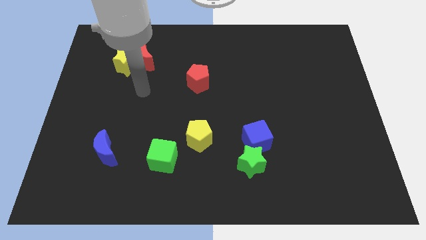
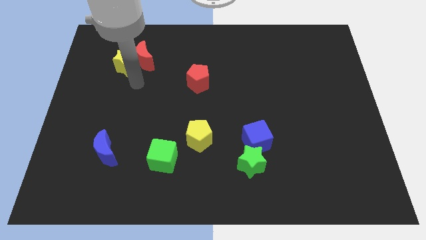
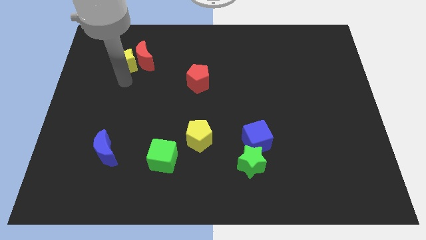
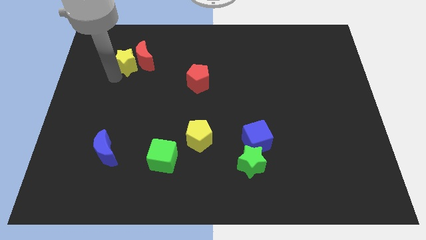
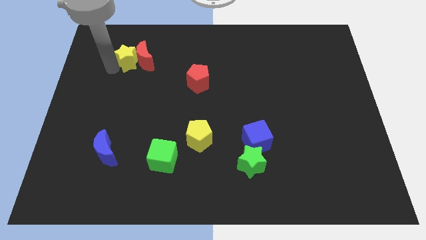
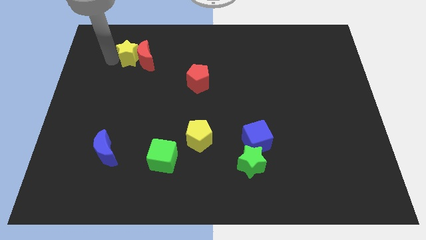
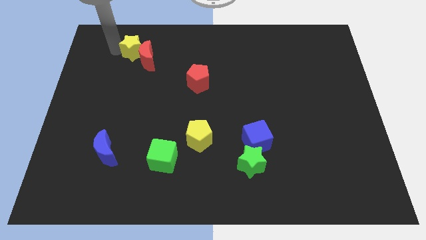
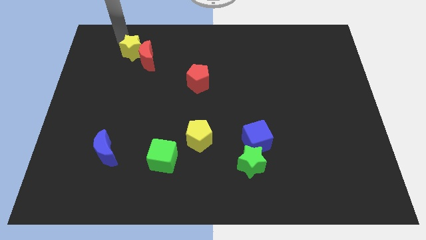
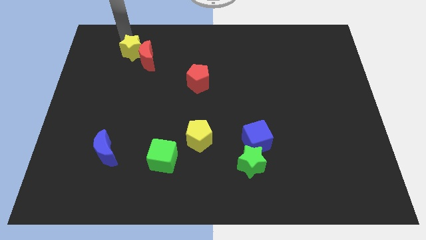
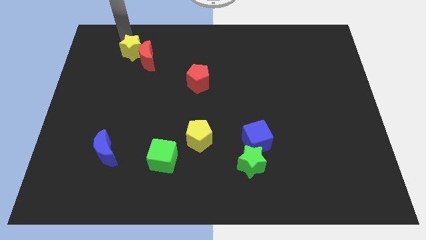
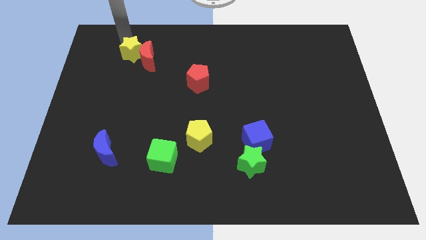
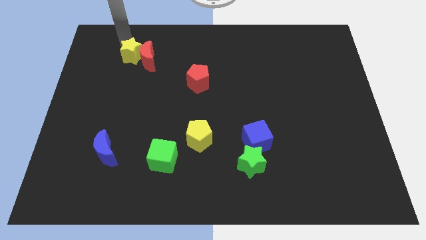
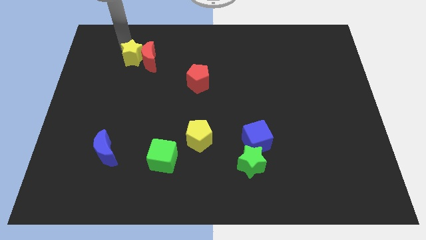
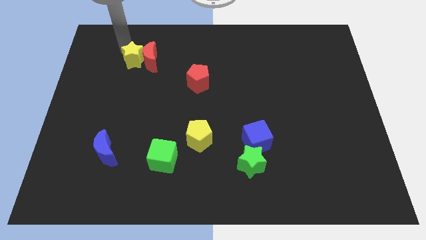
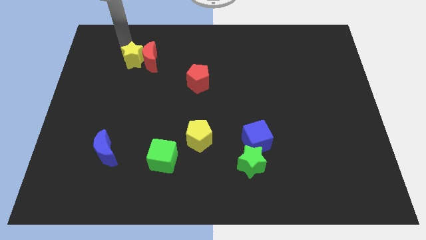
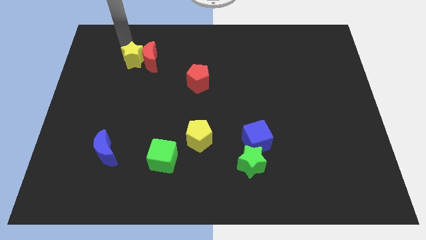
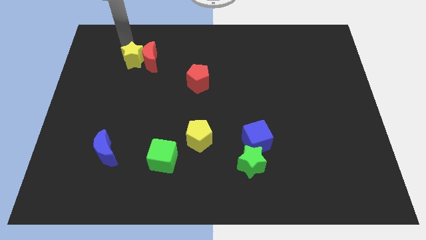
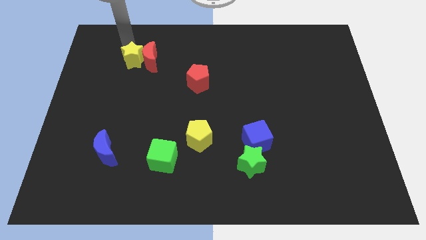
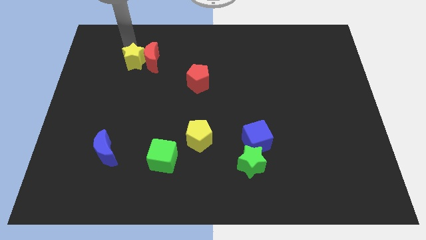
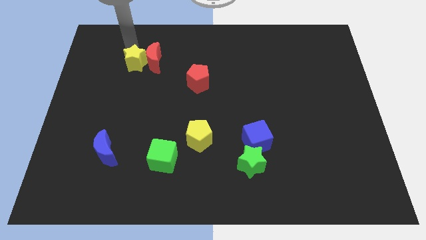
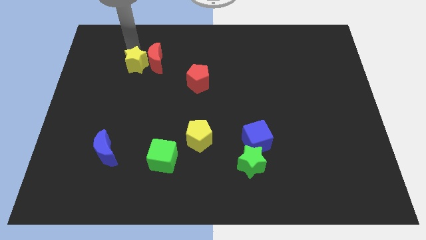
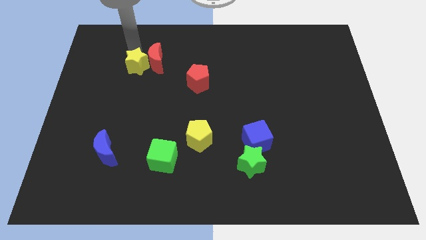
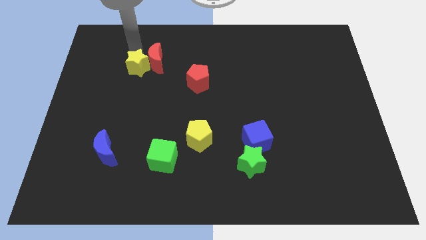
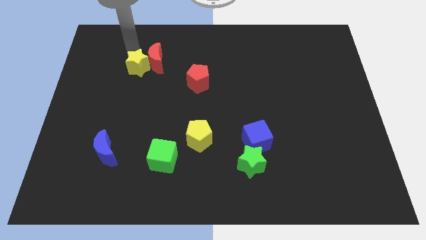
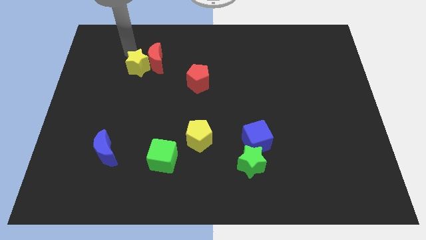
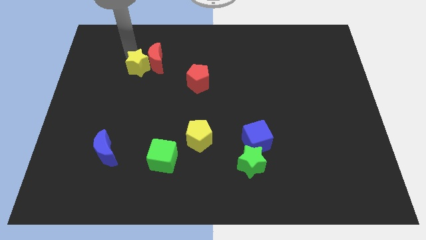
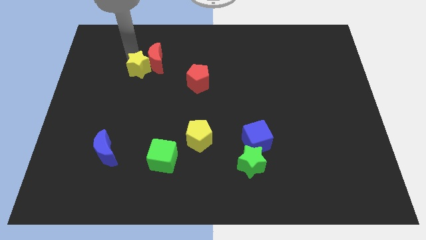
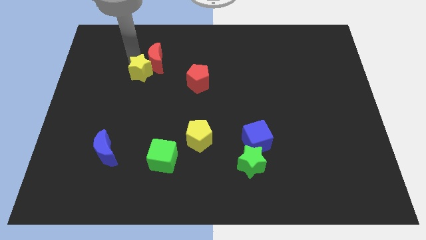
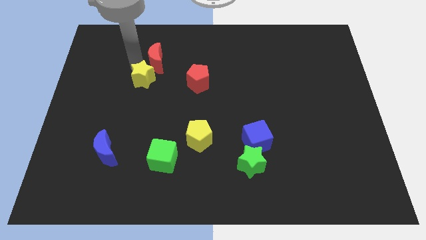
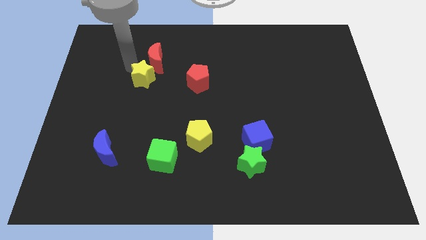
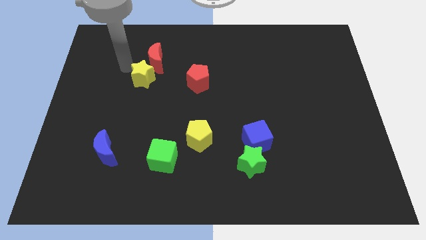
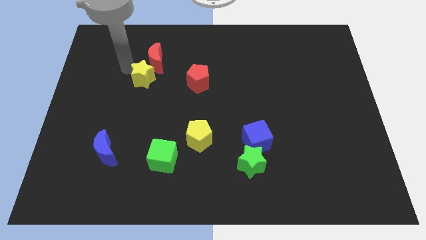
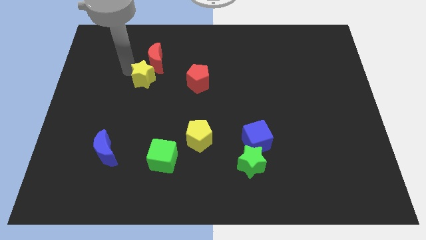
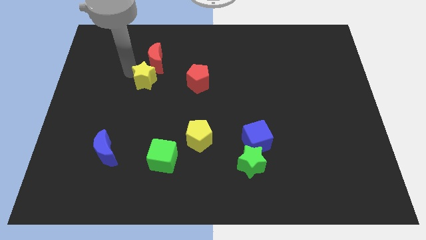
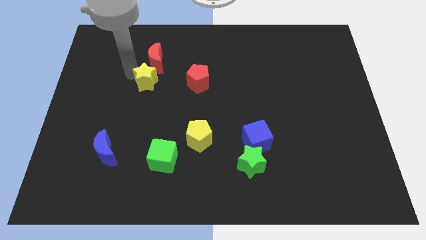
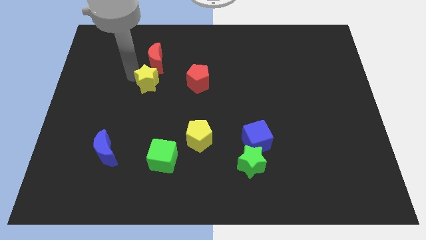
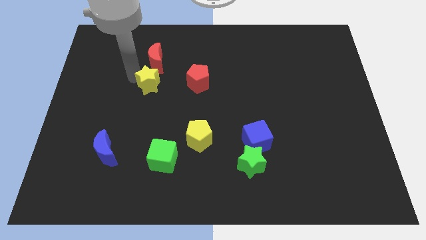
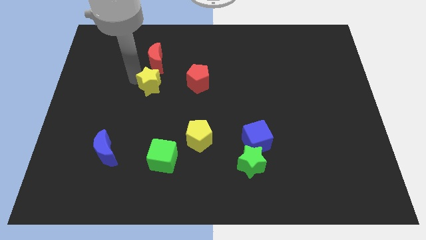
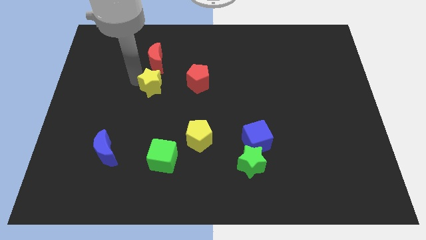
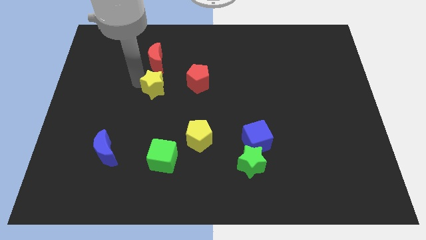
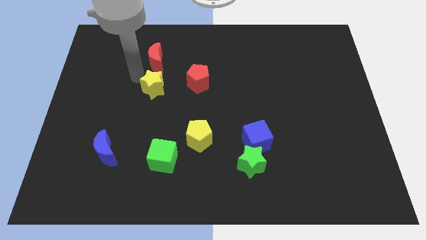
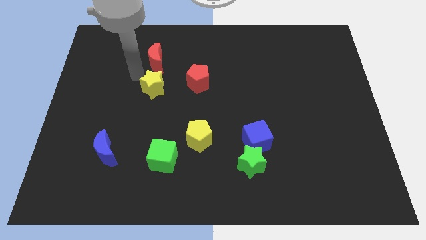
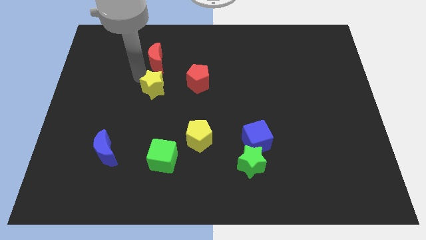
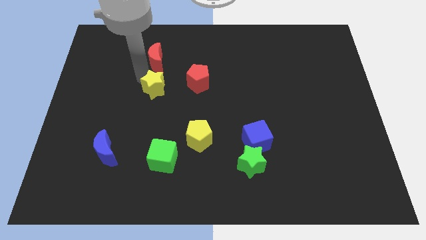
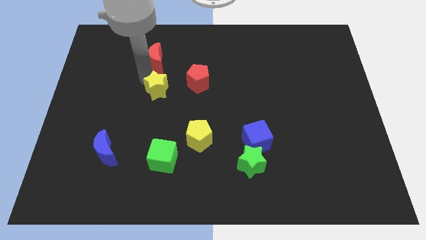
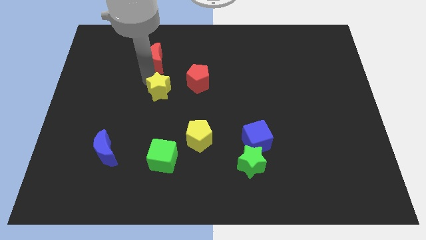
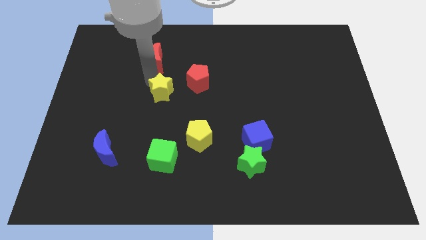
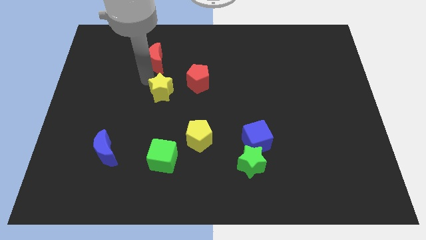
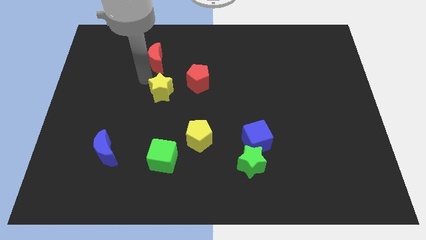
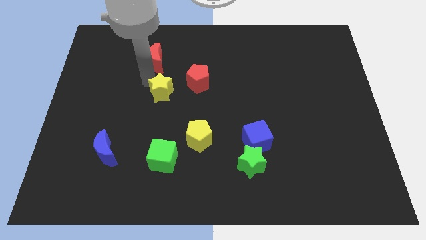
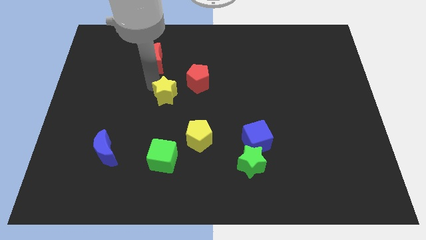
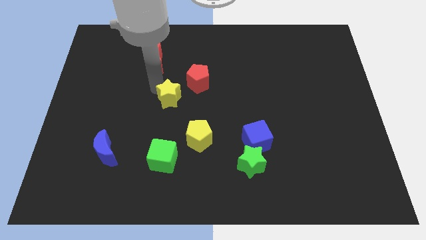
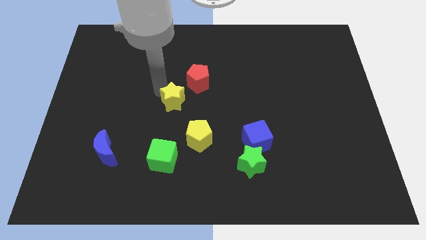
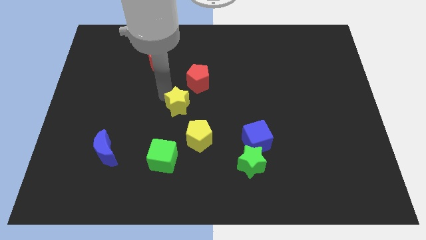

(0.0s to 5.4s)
move the yellow star to the bottom side of the red pentagon

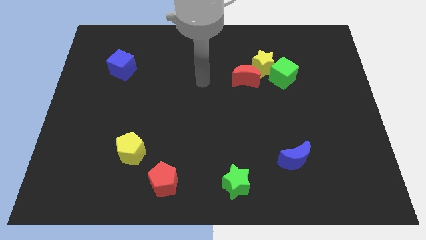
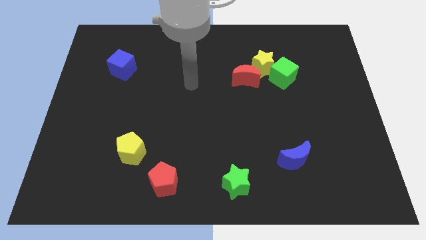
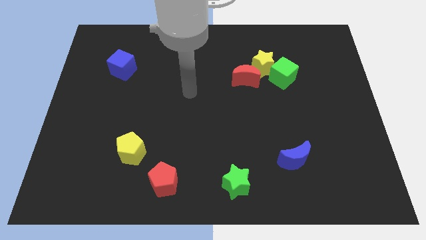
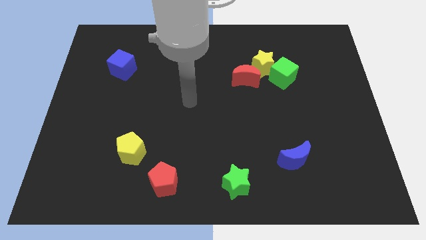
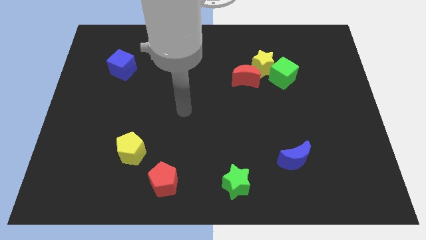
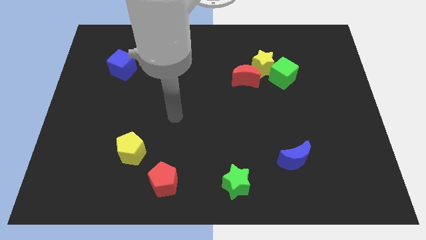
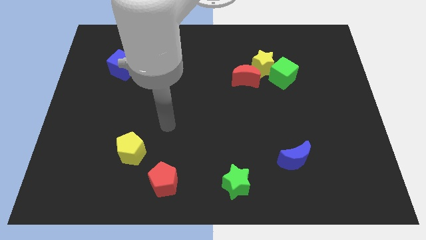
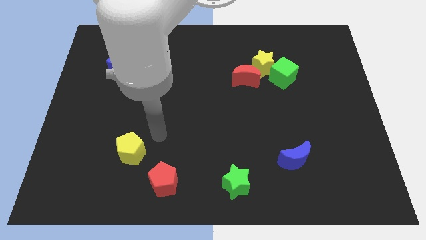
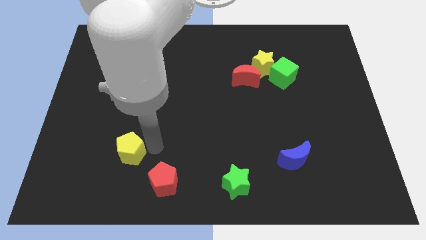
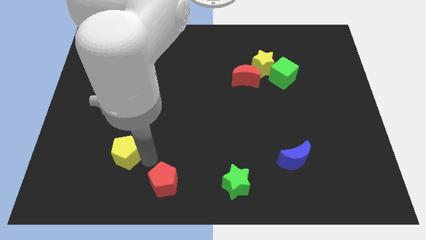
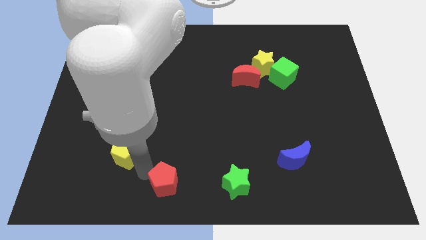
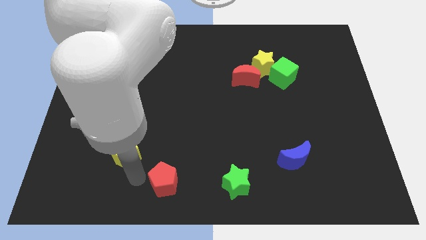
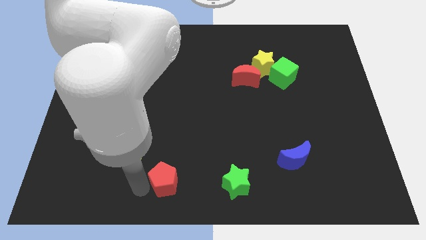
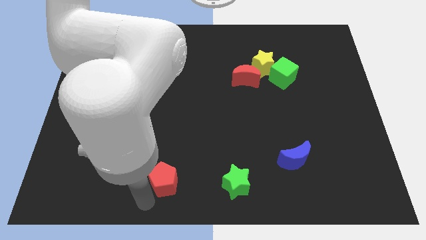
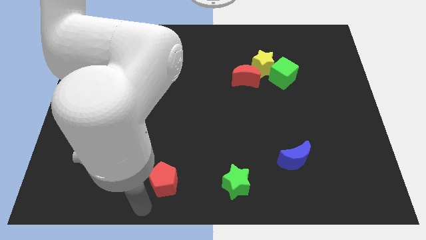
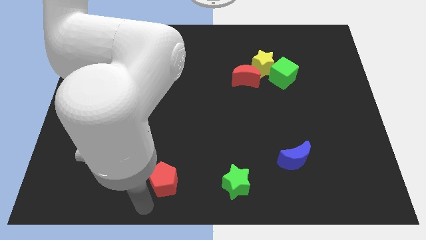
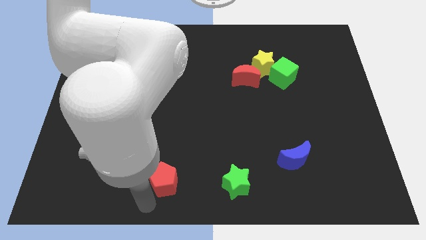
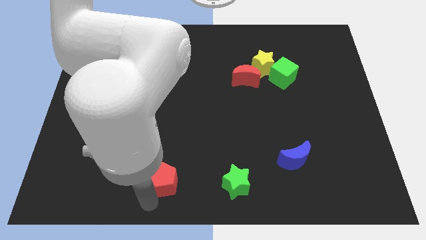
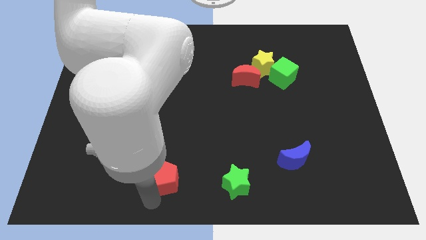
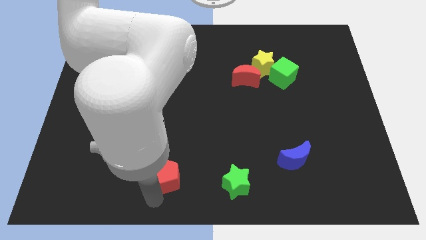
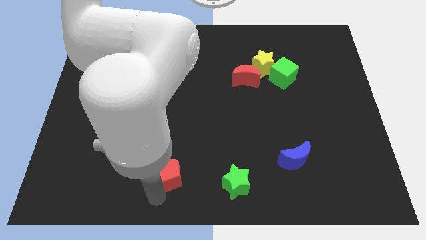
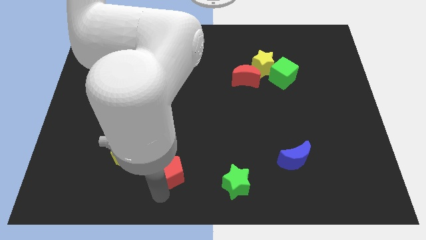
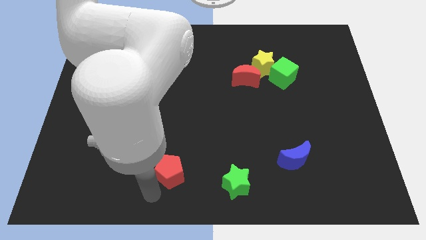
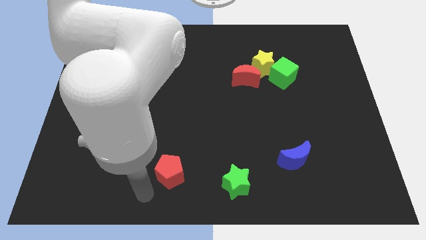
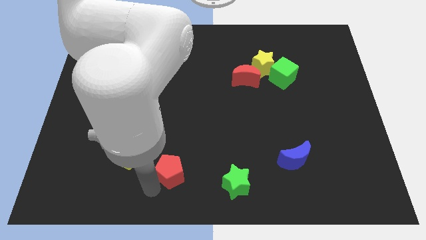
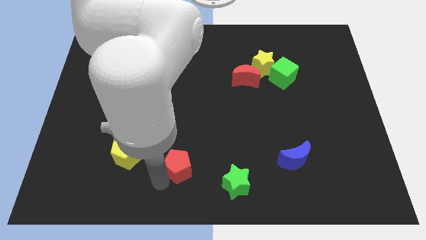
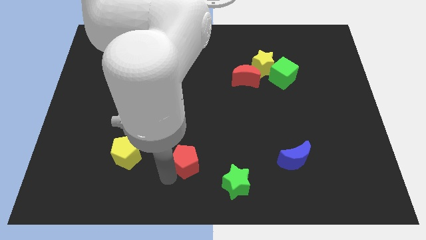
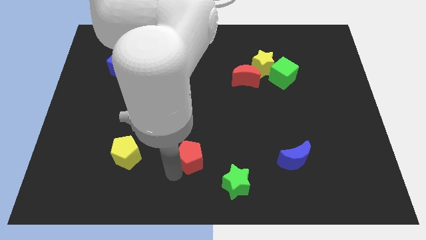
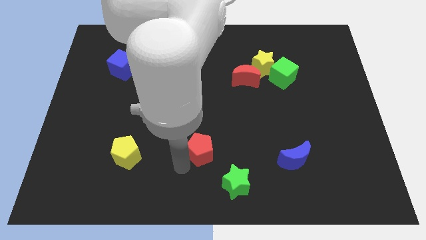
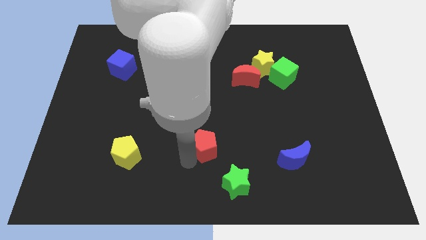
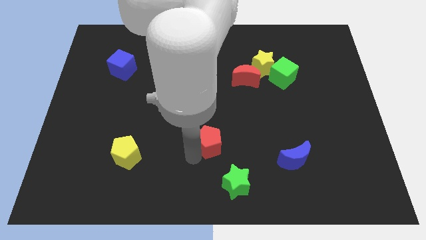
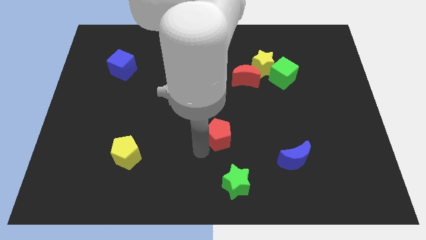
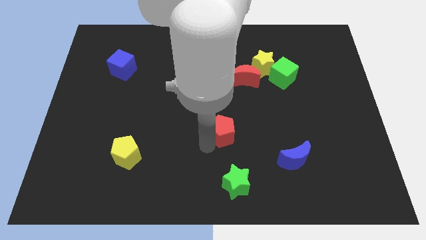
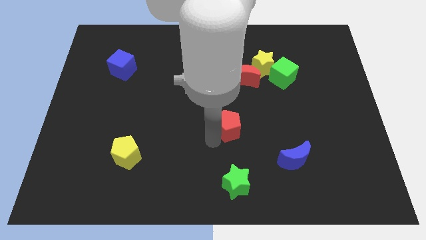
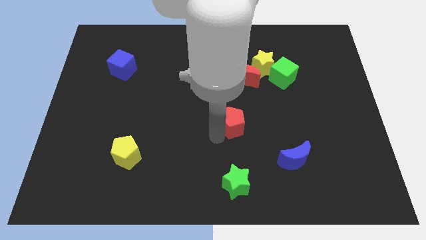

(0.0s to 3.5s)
move the red pentagon to the bottom side of the red moon
